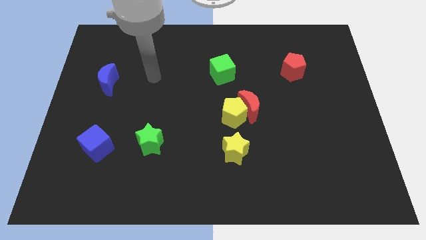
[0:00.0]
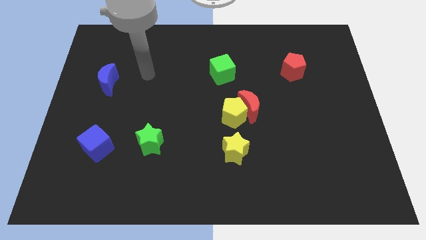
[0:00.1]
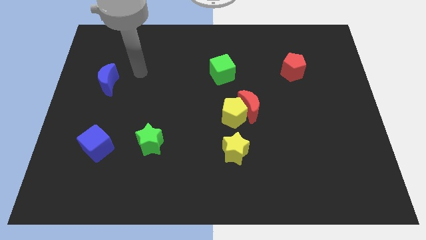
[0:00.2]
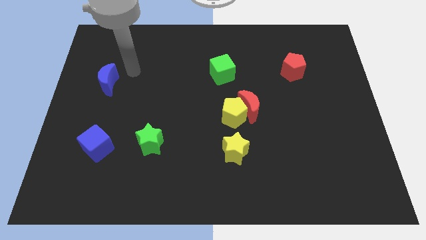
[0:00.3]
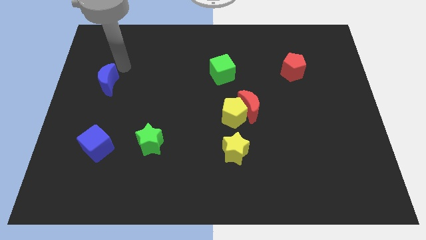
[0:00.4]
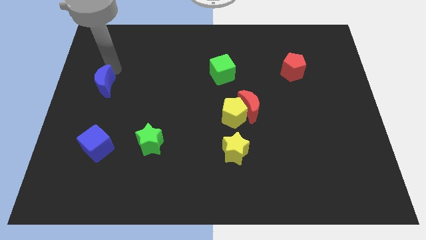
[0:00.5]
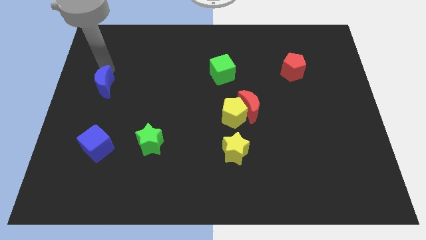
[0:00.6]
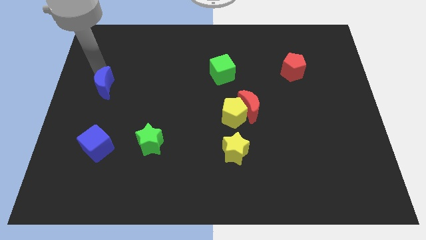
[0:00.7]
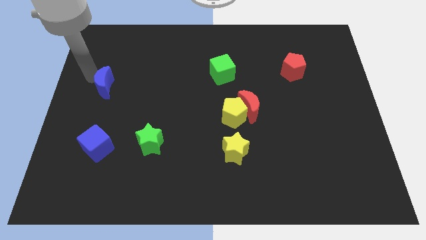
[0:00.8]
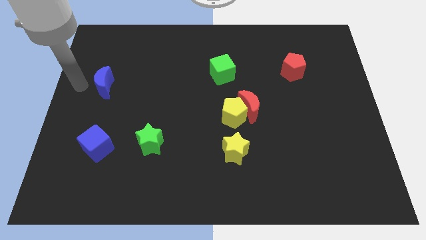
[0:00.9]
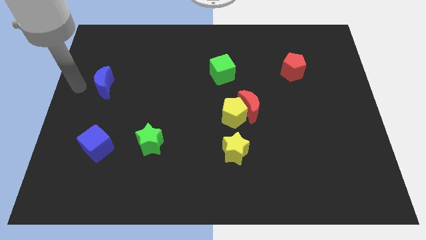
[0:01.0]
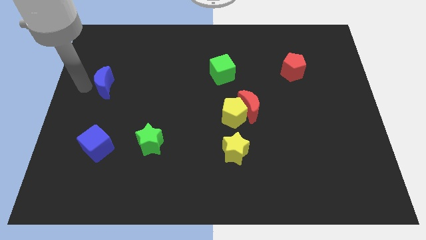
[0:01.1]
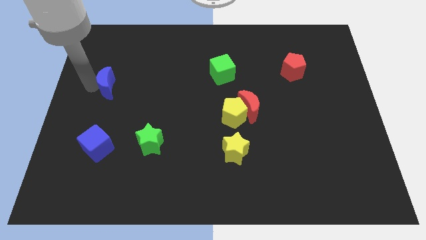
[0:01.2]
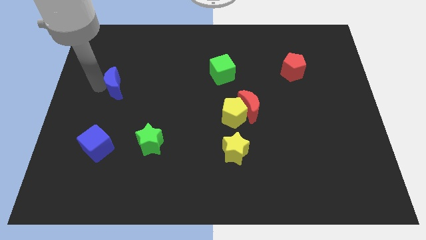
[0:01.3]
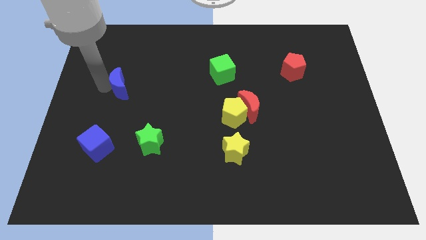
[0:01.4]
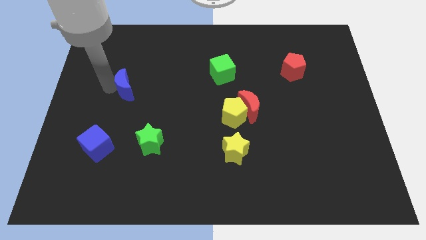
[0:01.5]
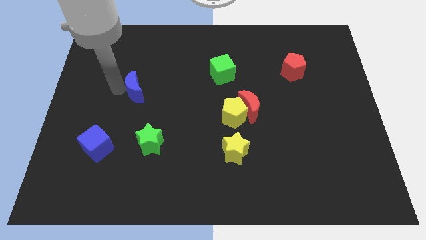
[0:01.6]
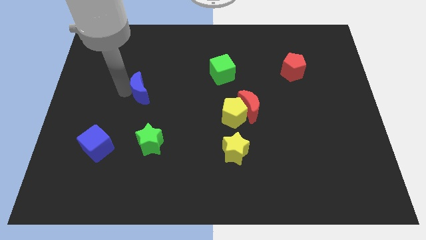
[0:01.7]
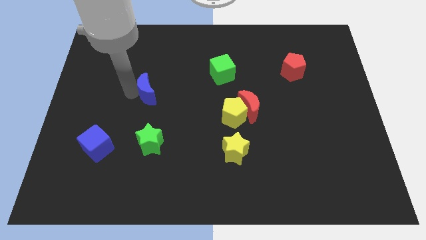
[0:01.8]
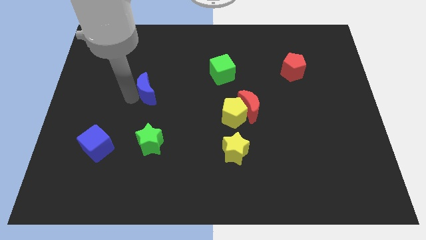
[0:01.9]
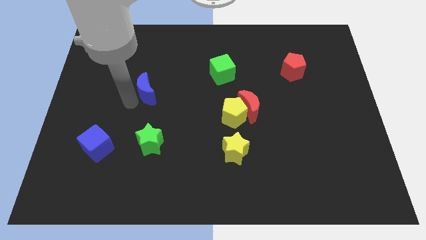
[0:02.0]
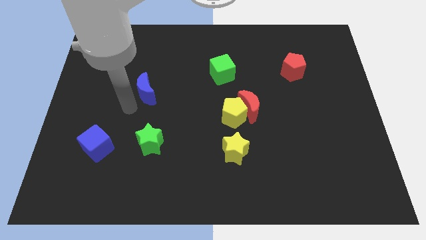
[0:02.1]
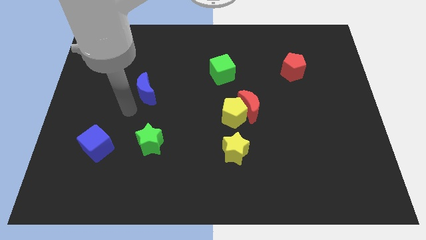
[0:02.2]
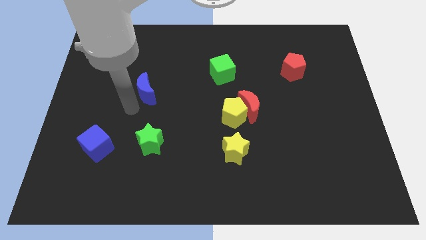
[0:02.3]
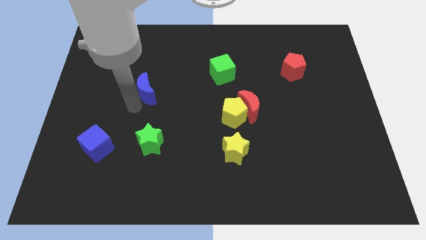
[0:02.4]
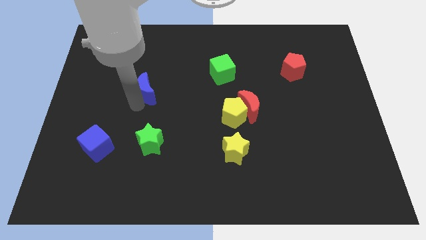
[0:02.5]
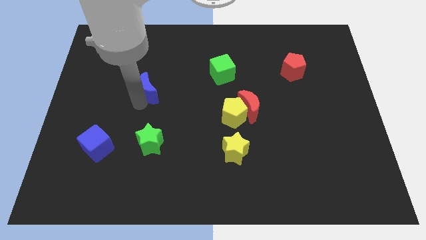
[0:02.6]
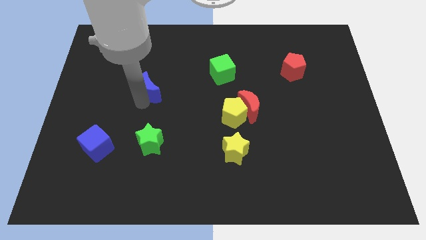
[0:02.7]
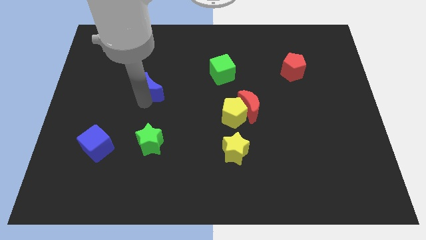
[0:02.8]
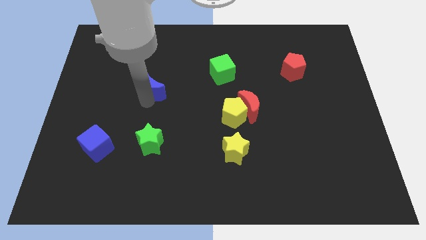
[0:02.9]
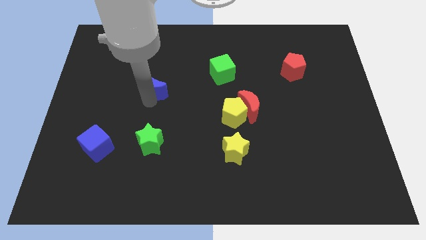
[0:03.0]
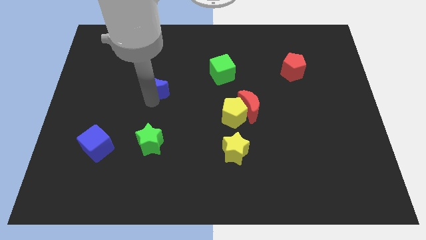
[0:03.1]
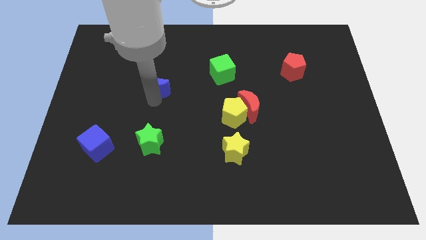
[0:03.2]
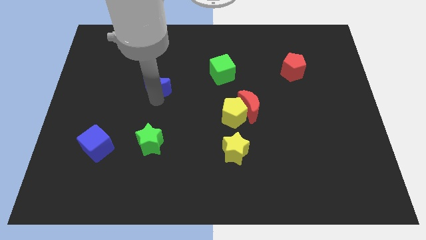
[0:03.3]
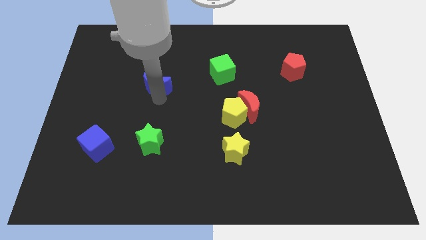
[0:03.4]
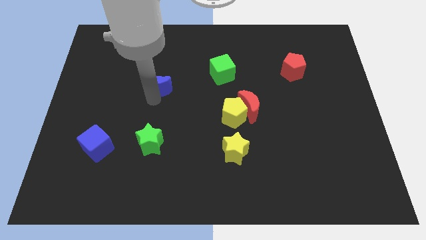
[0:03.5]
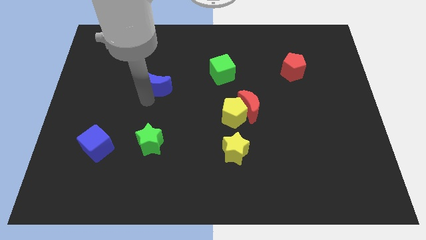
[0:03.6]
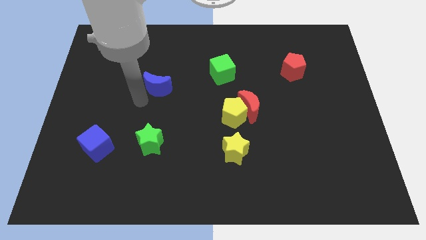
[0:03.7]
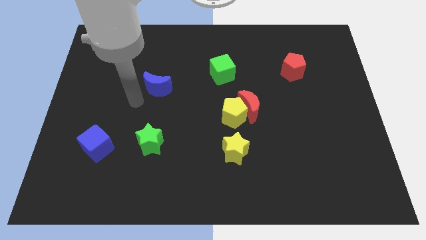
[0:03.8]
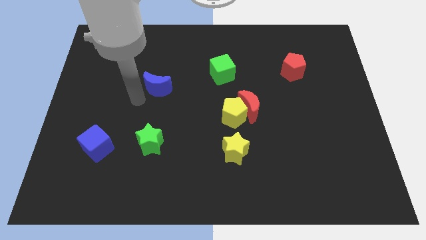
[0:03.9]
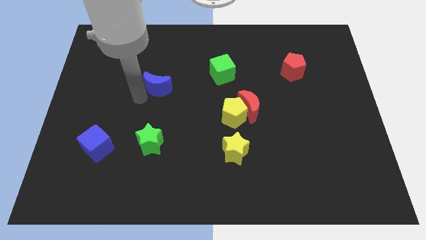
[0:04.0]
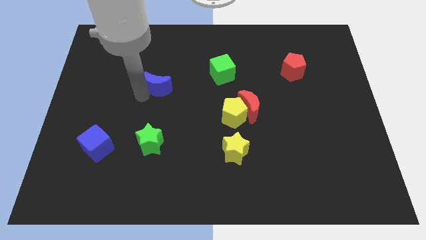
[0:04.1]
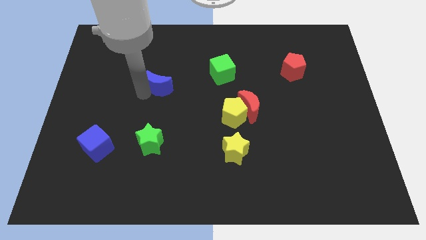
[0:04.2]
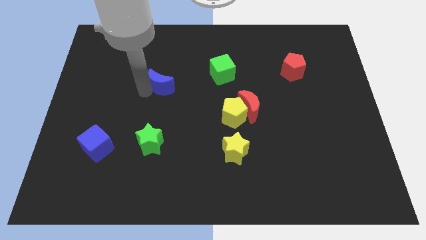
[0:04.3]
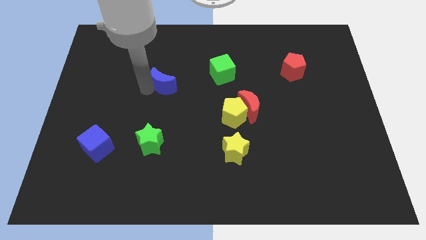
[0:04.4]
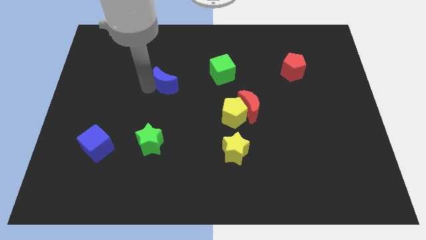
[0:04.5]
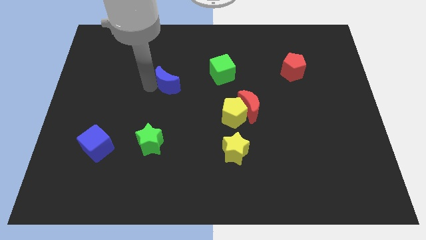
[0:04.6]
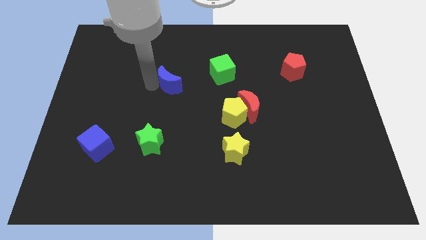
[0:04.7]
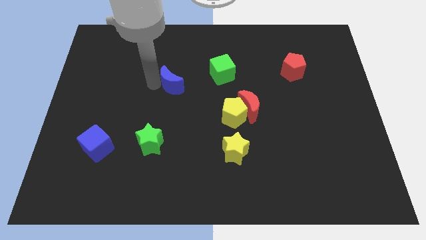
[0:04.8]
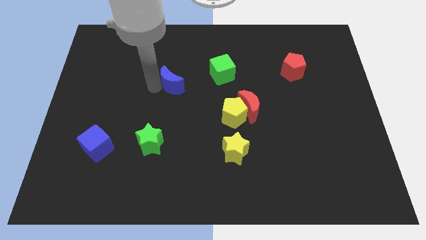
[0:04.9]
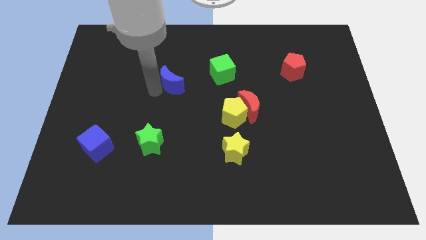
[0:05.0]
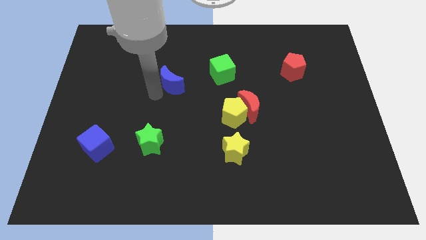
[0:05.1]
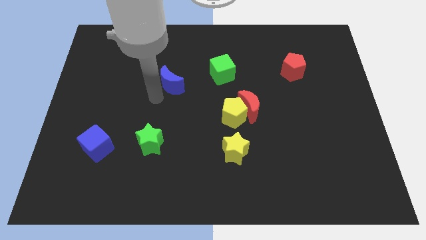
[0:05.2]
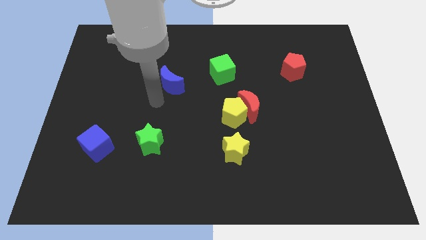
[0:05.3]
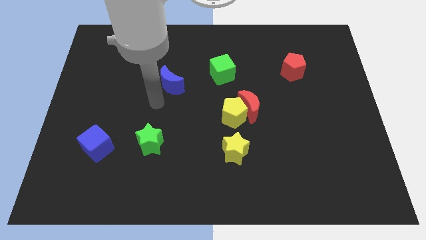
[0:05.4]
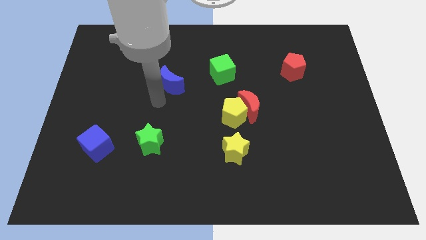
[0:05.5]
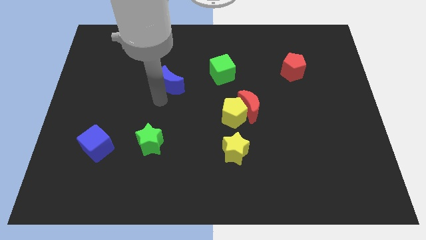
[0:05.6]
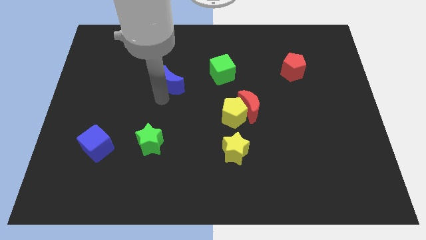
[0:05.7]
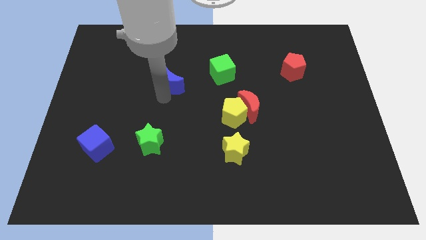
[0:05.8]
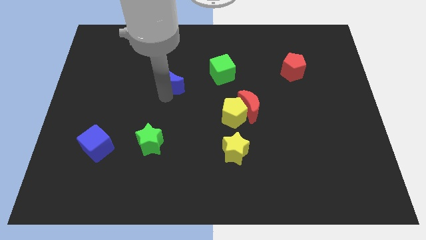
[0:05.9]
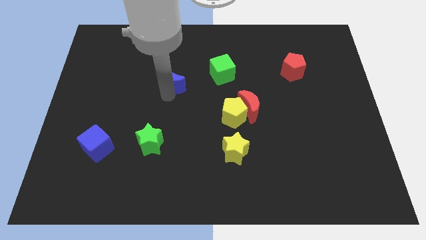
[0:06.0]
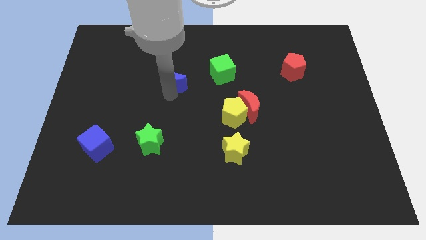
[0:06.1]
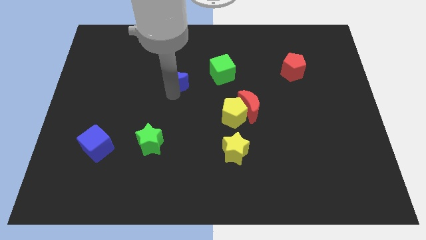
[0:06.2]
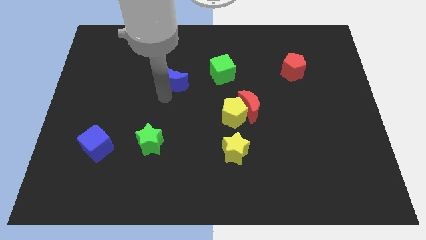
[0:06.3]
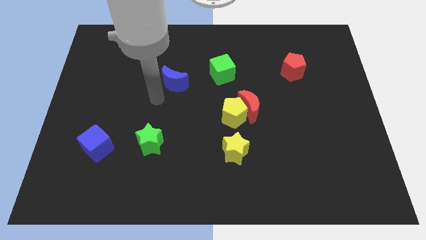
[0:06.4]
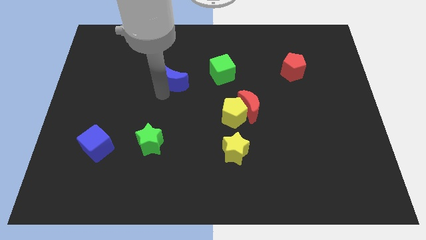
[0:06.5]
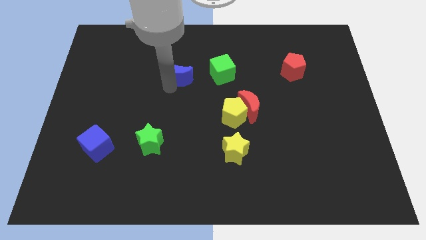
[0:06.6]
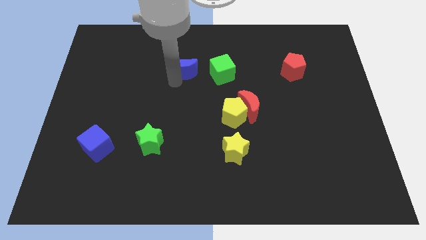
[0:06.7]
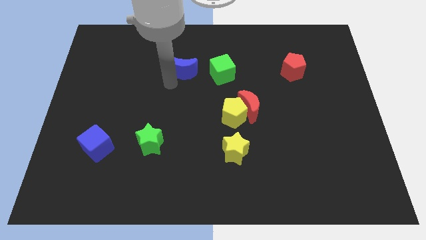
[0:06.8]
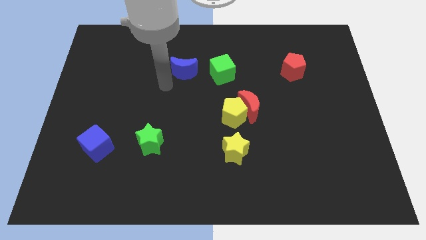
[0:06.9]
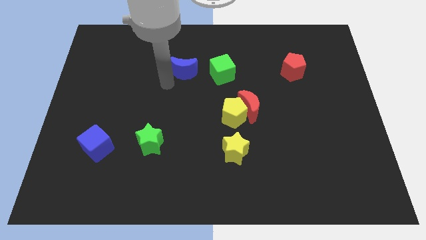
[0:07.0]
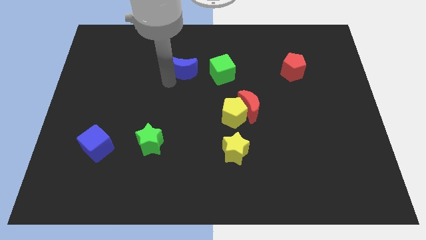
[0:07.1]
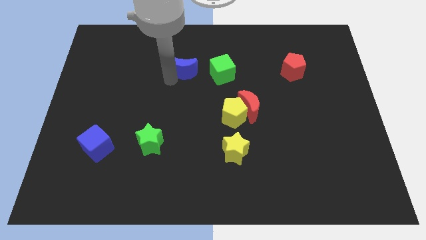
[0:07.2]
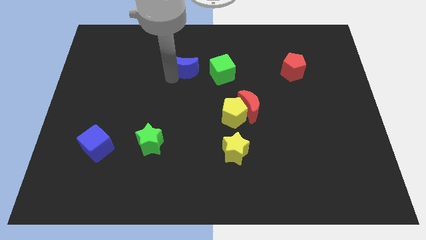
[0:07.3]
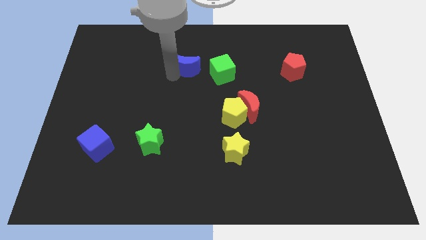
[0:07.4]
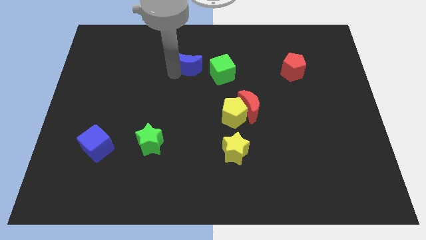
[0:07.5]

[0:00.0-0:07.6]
push the blue moon to the top left side of the green cube
